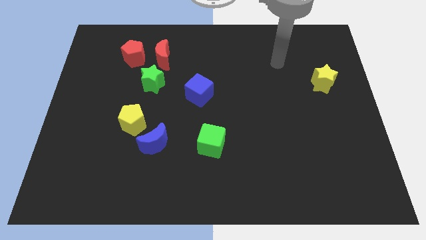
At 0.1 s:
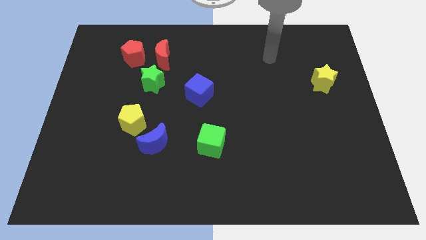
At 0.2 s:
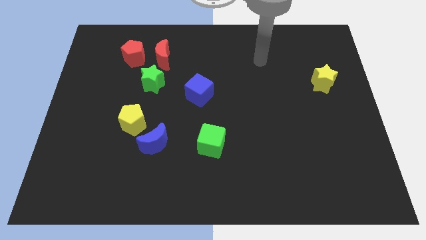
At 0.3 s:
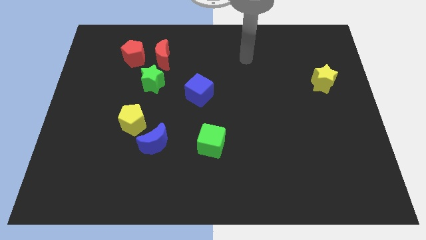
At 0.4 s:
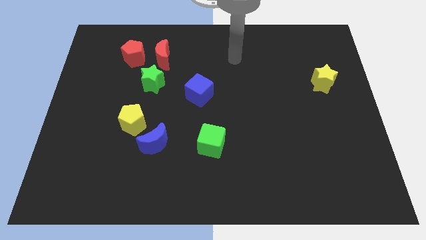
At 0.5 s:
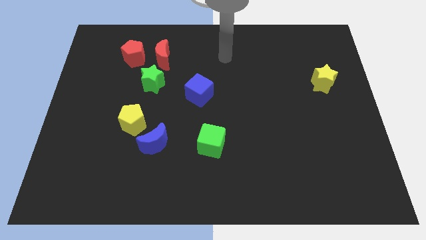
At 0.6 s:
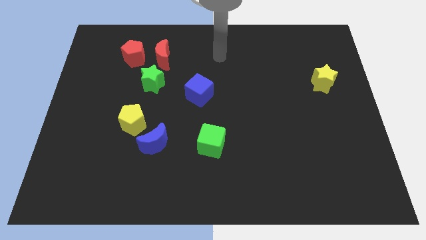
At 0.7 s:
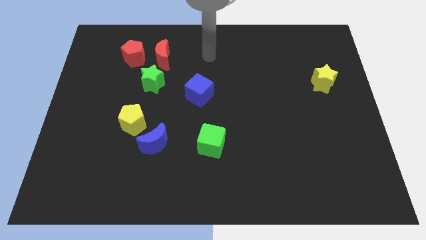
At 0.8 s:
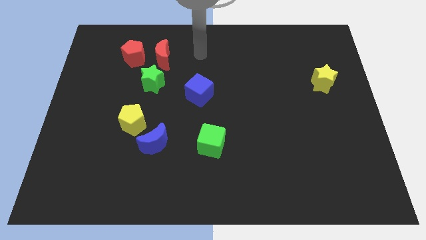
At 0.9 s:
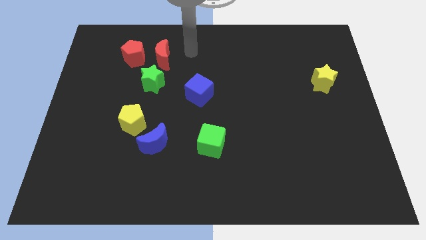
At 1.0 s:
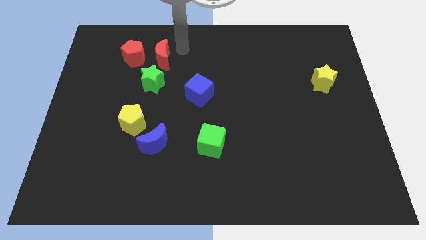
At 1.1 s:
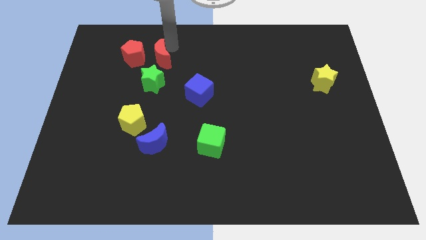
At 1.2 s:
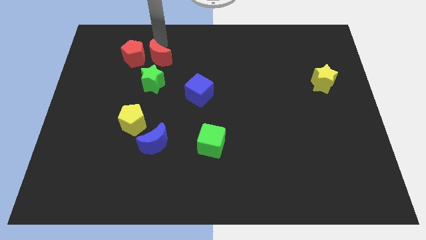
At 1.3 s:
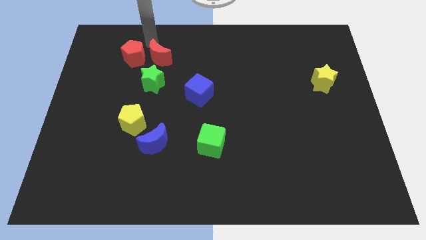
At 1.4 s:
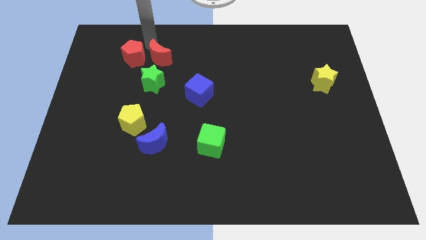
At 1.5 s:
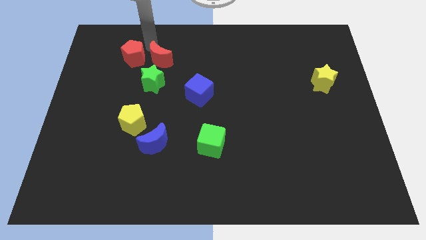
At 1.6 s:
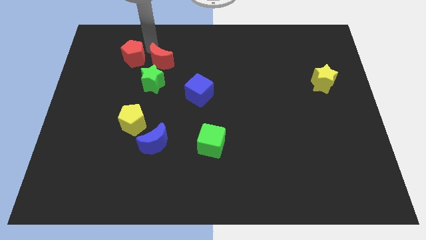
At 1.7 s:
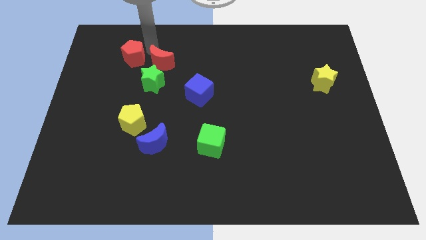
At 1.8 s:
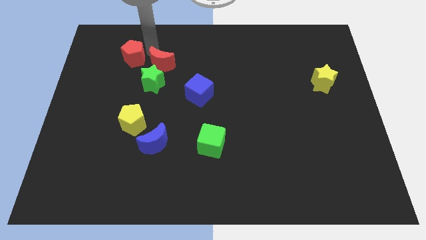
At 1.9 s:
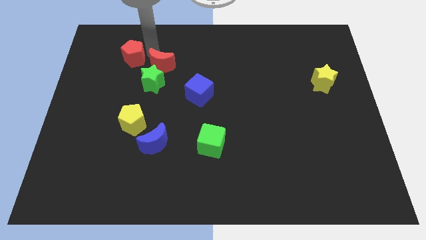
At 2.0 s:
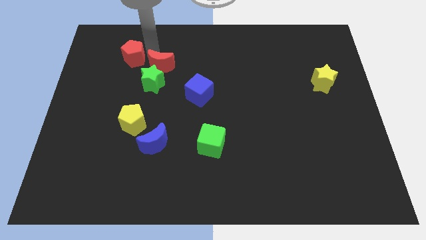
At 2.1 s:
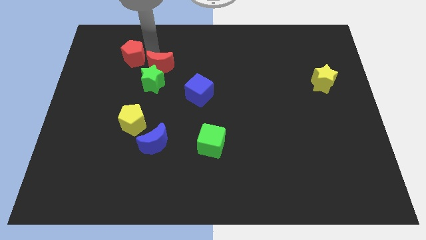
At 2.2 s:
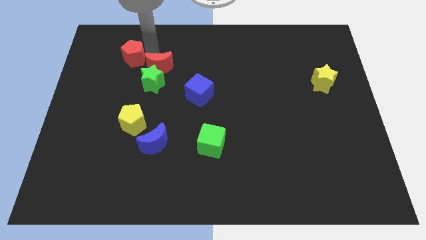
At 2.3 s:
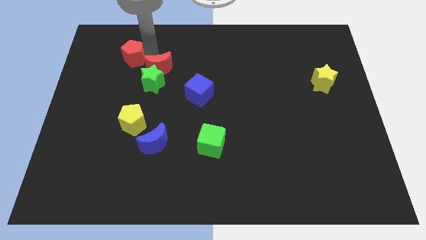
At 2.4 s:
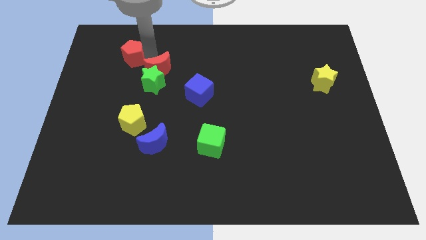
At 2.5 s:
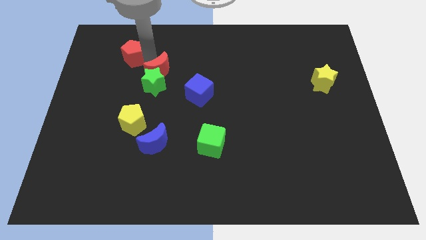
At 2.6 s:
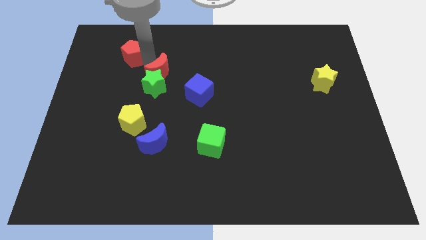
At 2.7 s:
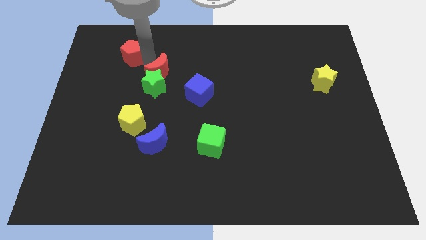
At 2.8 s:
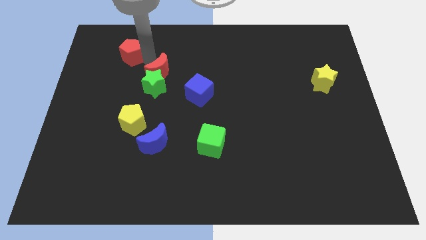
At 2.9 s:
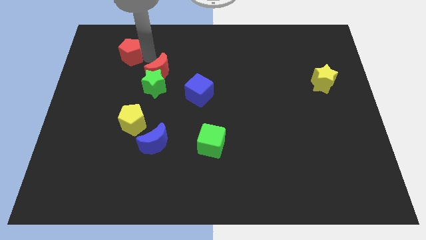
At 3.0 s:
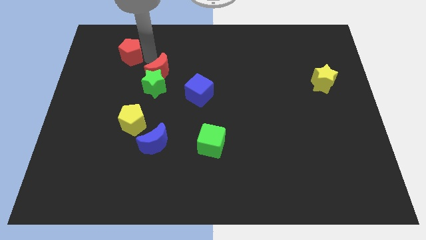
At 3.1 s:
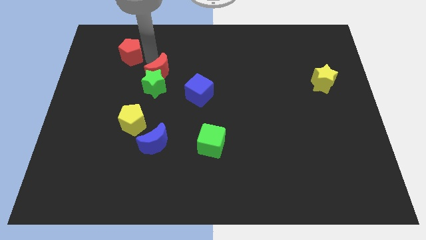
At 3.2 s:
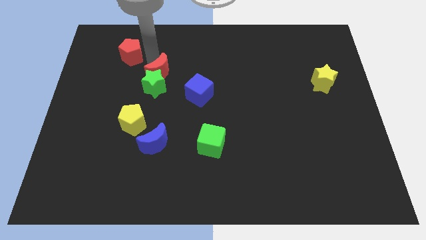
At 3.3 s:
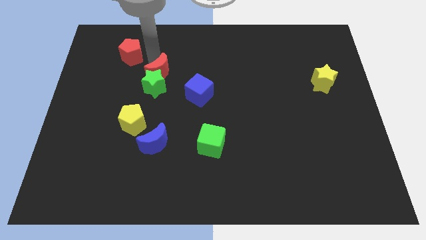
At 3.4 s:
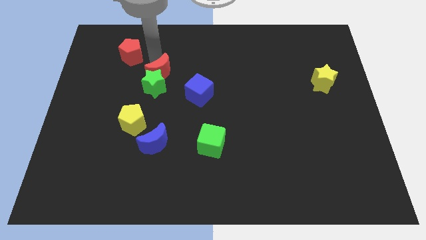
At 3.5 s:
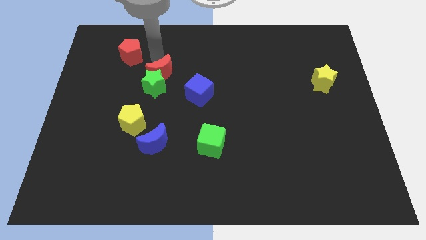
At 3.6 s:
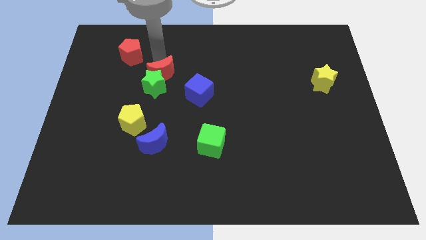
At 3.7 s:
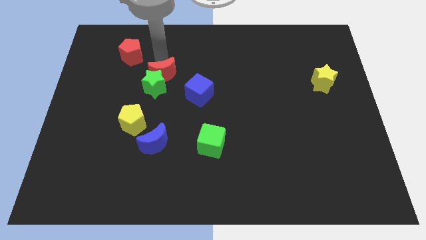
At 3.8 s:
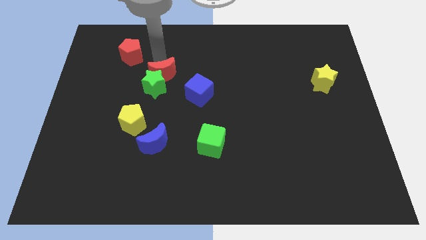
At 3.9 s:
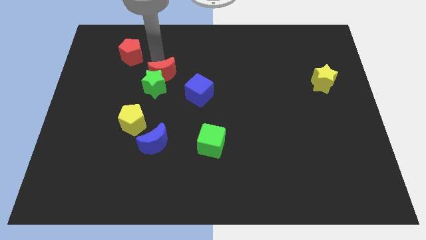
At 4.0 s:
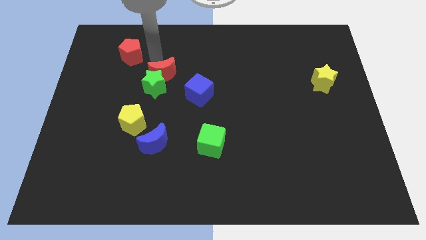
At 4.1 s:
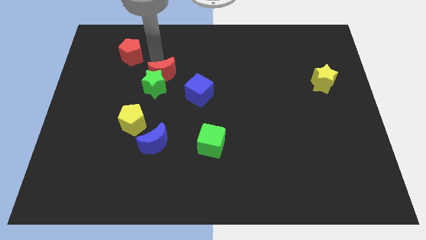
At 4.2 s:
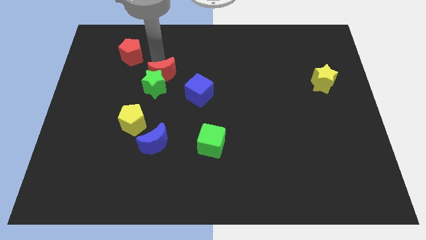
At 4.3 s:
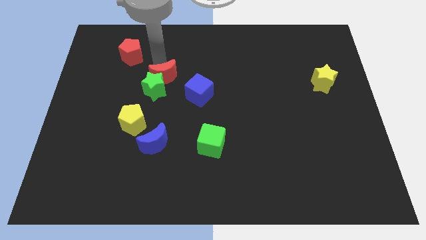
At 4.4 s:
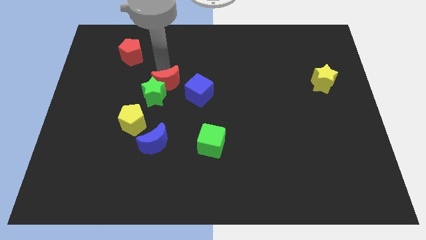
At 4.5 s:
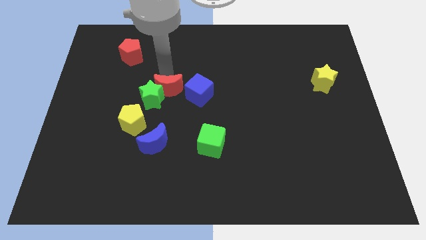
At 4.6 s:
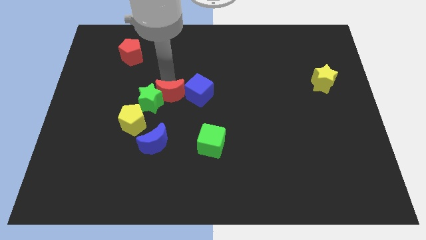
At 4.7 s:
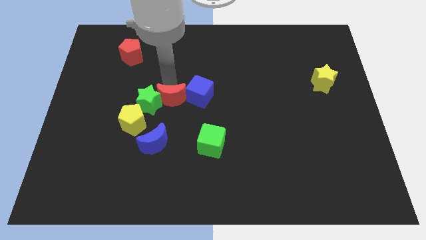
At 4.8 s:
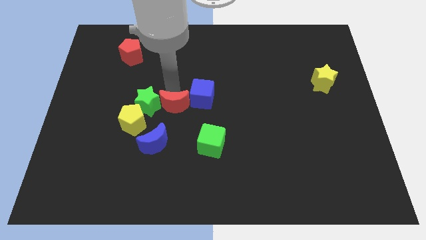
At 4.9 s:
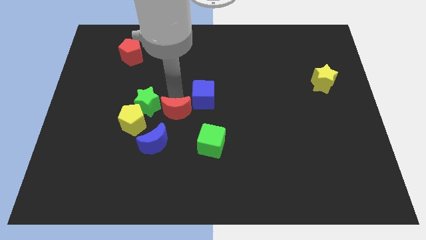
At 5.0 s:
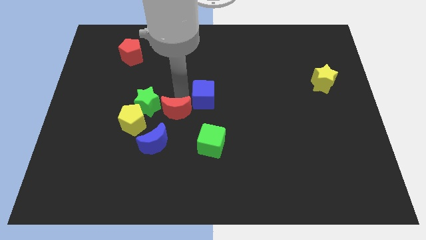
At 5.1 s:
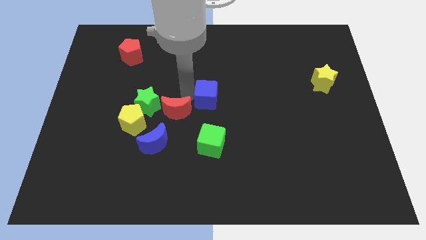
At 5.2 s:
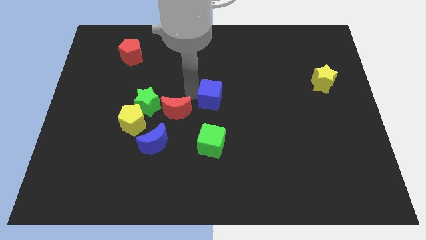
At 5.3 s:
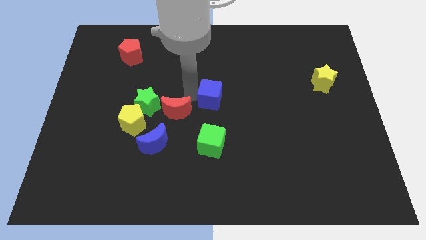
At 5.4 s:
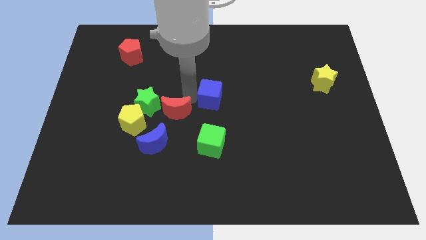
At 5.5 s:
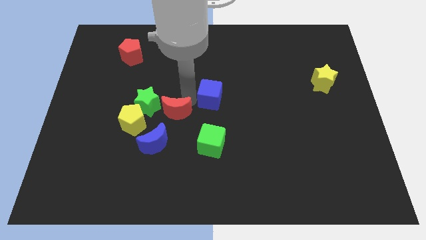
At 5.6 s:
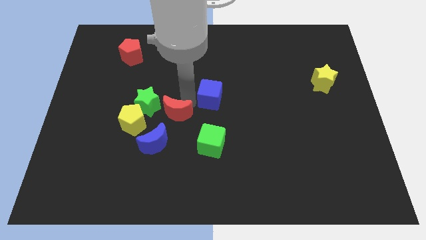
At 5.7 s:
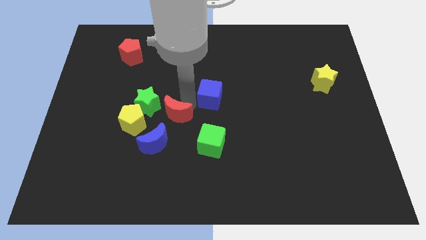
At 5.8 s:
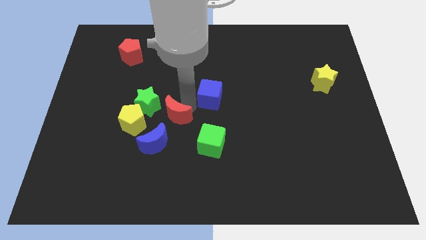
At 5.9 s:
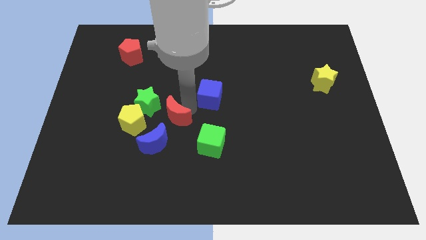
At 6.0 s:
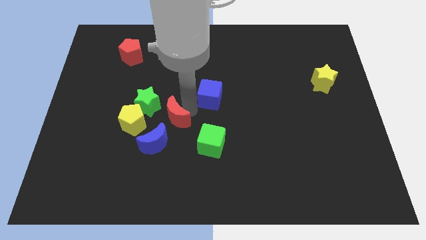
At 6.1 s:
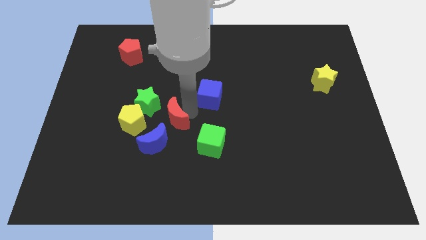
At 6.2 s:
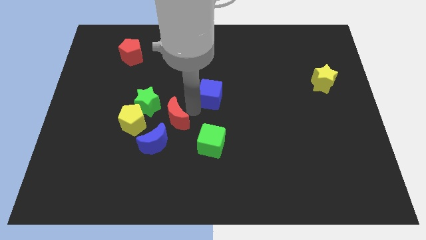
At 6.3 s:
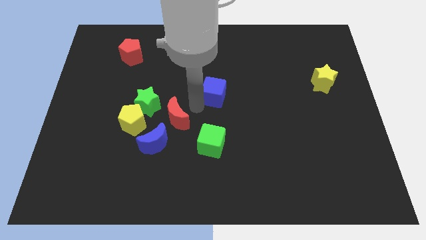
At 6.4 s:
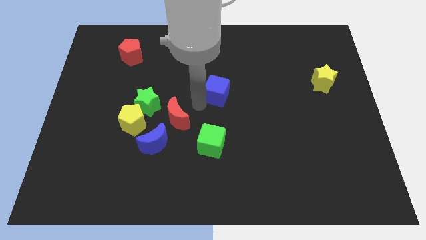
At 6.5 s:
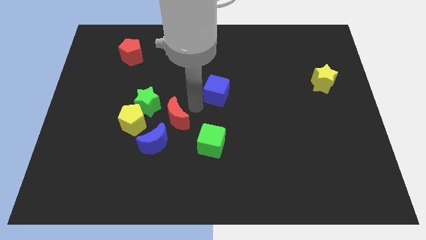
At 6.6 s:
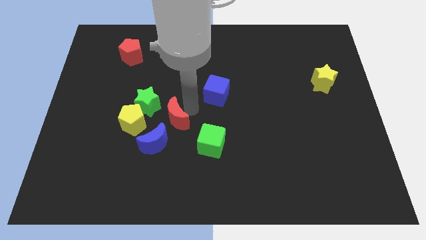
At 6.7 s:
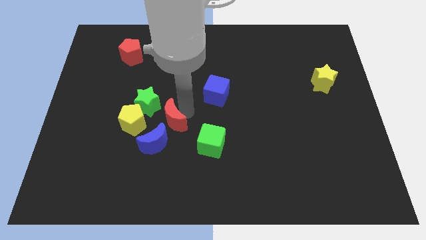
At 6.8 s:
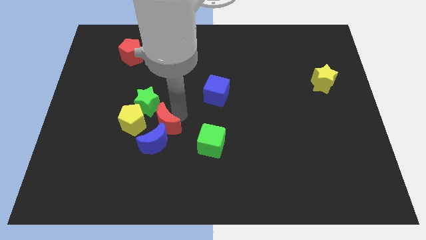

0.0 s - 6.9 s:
put the red moon close to the blue moon

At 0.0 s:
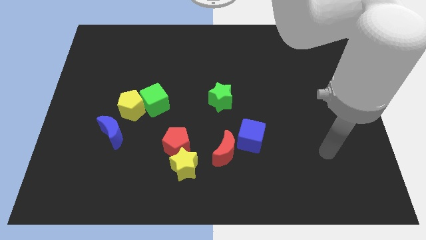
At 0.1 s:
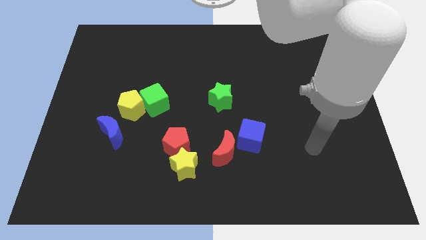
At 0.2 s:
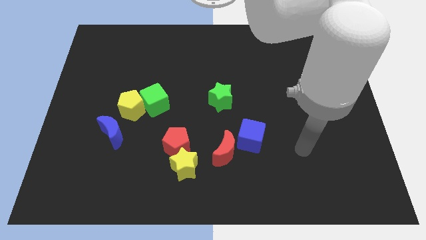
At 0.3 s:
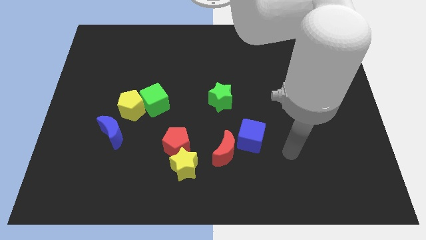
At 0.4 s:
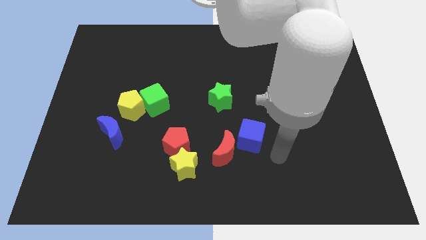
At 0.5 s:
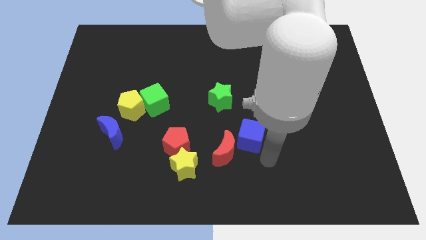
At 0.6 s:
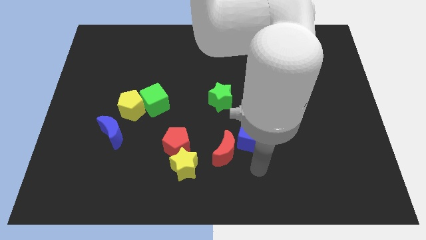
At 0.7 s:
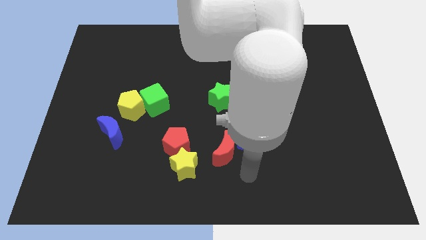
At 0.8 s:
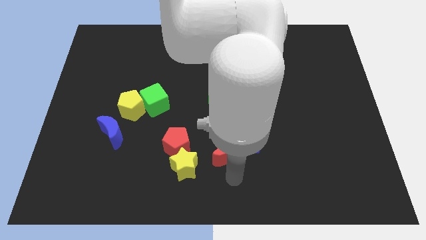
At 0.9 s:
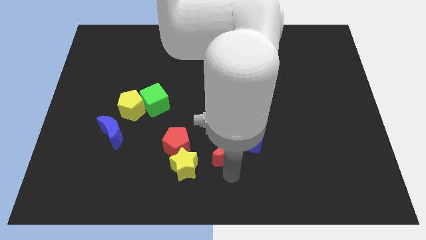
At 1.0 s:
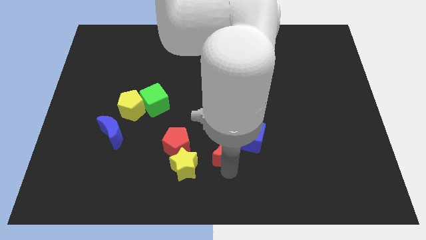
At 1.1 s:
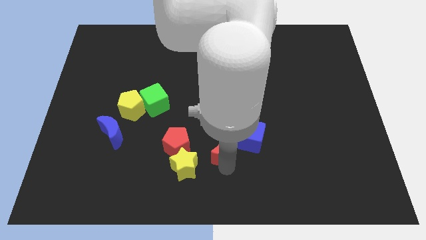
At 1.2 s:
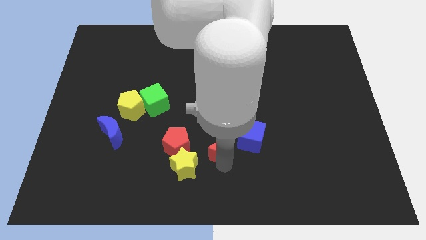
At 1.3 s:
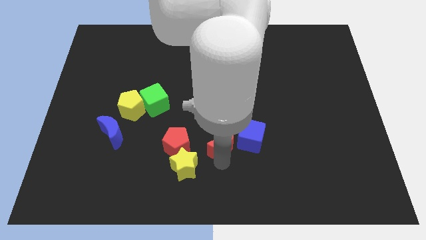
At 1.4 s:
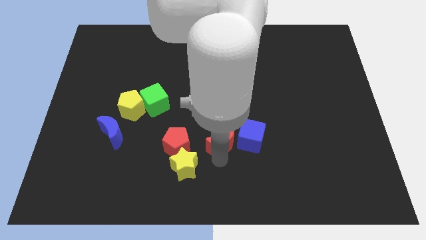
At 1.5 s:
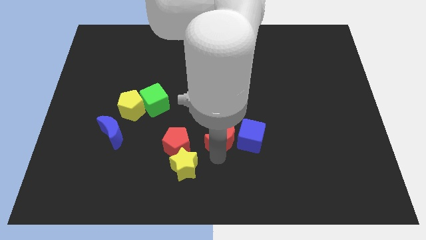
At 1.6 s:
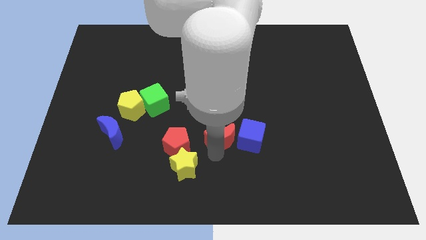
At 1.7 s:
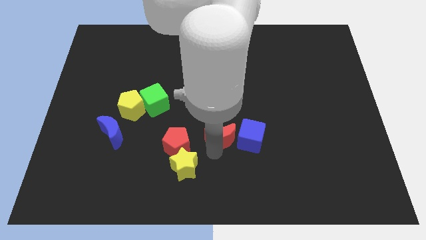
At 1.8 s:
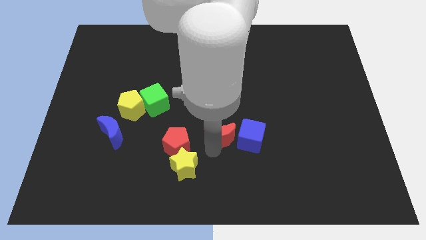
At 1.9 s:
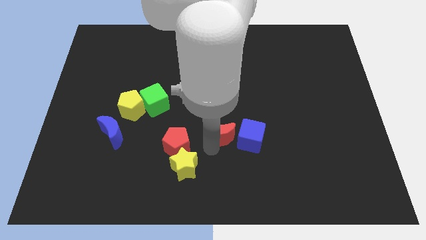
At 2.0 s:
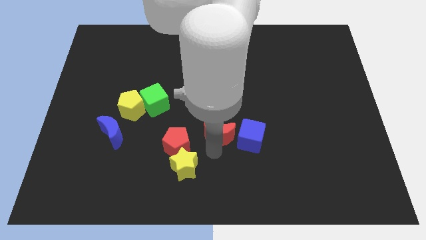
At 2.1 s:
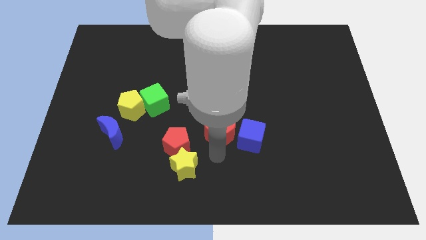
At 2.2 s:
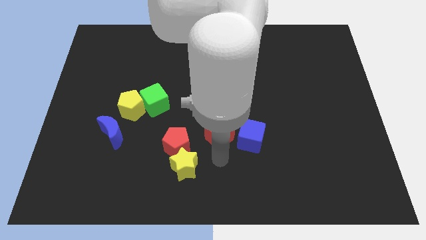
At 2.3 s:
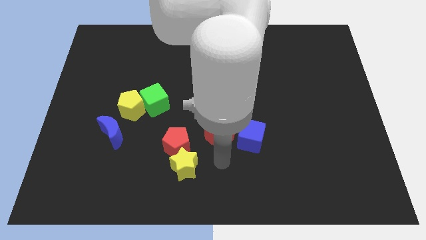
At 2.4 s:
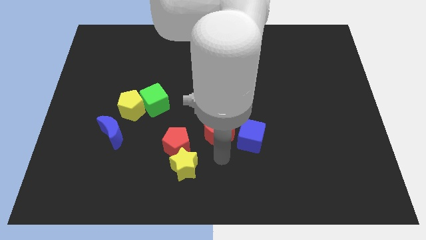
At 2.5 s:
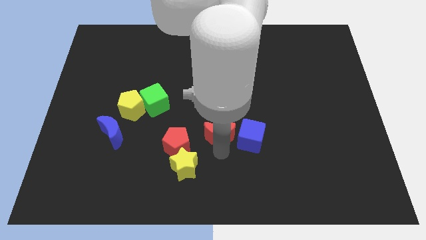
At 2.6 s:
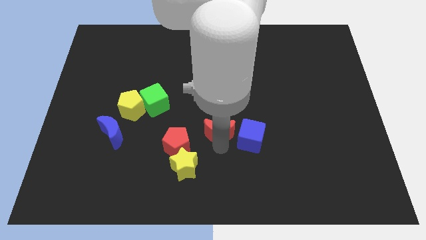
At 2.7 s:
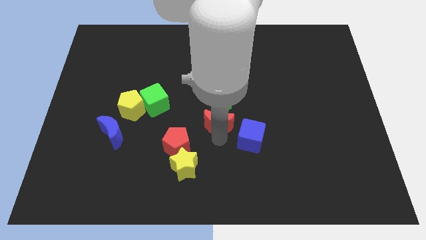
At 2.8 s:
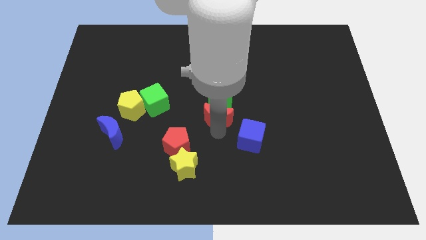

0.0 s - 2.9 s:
slide the red moon next to the green star
